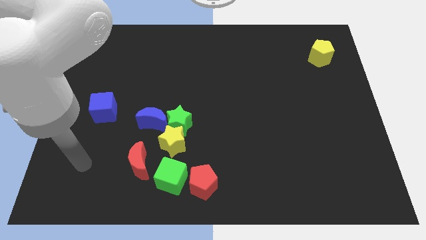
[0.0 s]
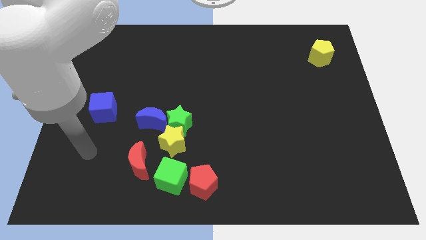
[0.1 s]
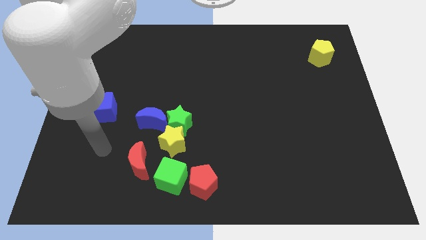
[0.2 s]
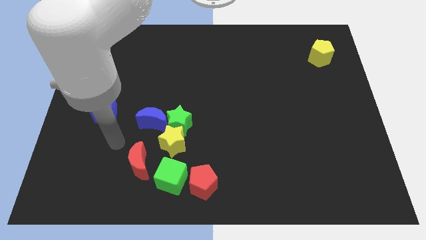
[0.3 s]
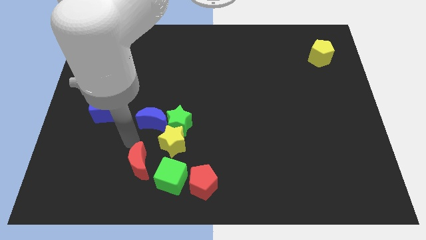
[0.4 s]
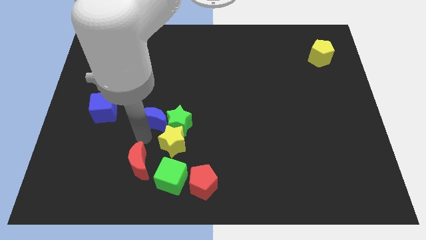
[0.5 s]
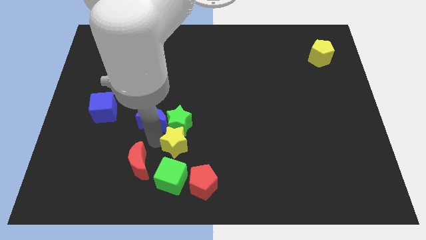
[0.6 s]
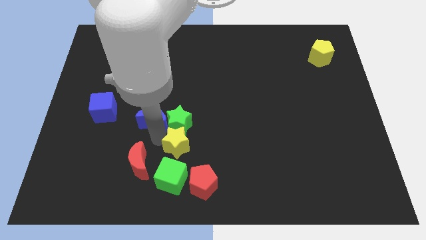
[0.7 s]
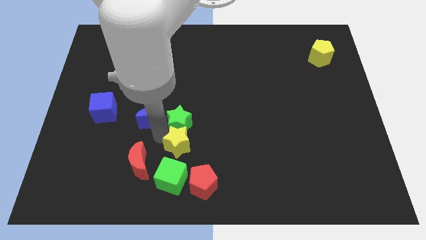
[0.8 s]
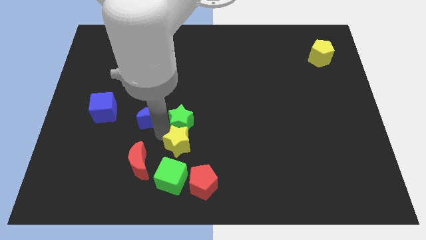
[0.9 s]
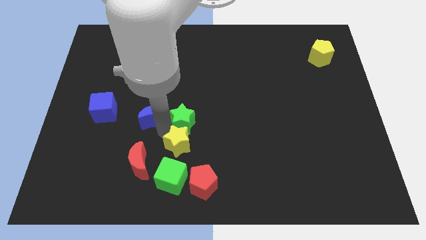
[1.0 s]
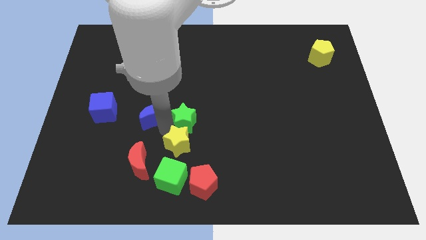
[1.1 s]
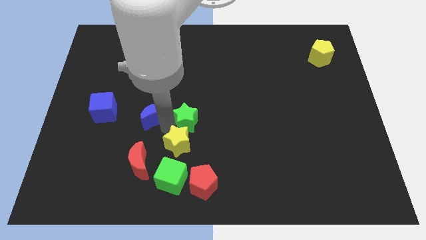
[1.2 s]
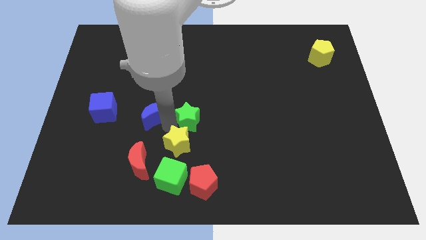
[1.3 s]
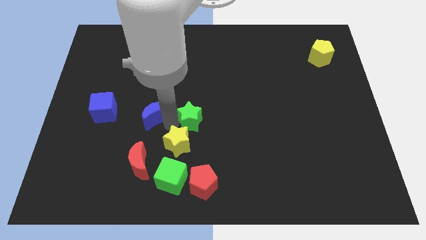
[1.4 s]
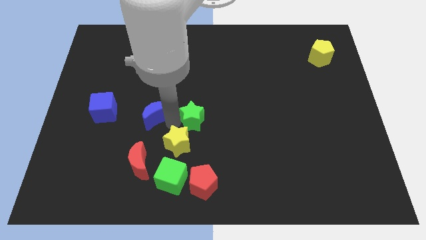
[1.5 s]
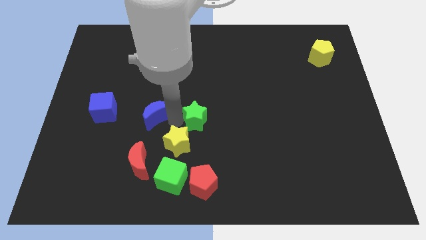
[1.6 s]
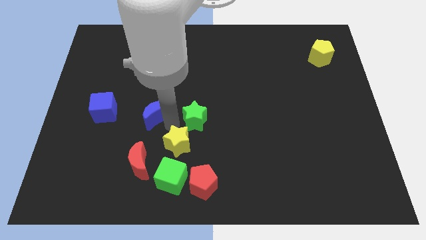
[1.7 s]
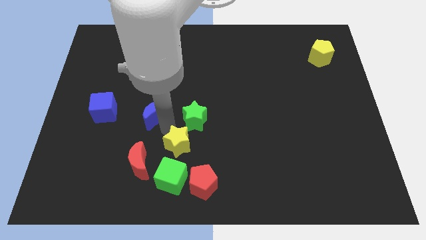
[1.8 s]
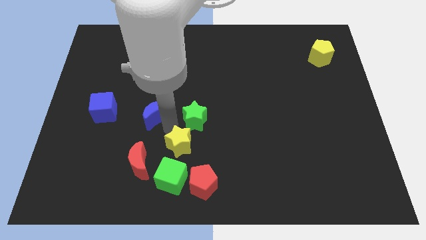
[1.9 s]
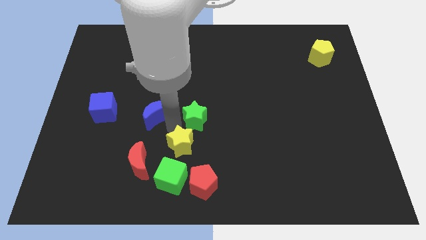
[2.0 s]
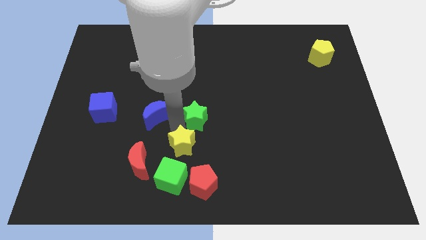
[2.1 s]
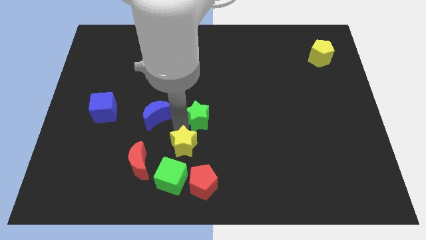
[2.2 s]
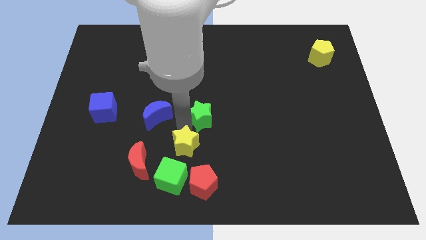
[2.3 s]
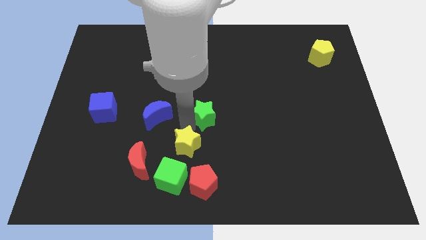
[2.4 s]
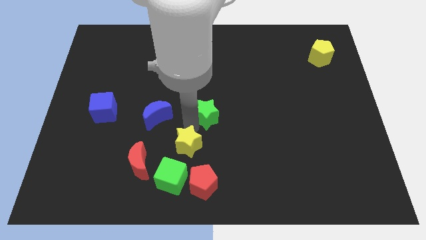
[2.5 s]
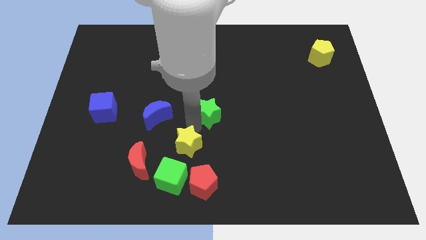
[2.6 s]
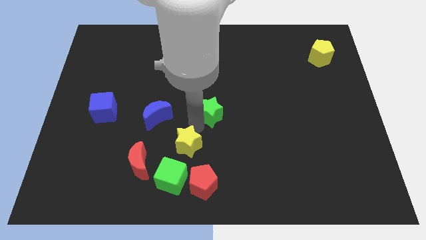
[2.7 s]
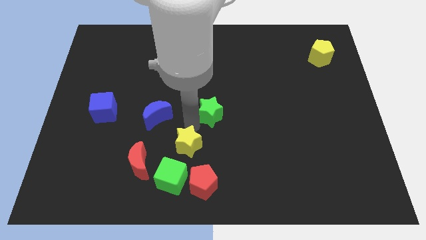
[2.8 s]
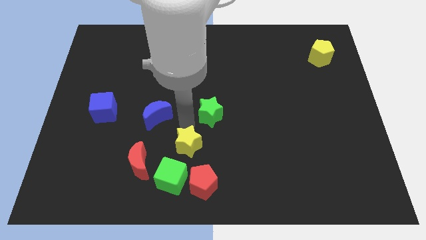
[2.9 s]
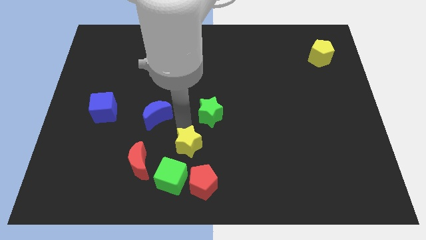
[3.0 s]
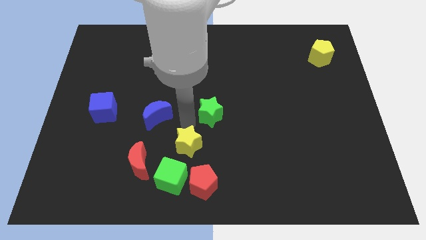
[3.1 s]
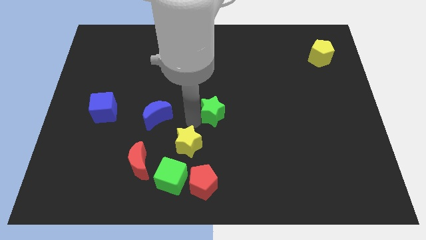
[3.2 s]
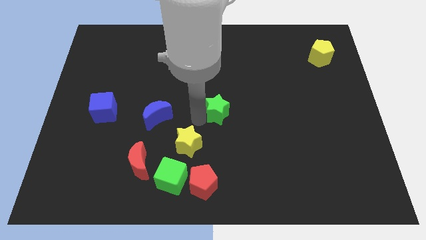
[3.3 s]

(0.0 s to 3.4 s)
pull the green star apart from the yellow star and blue moon

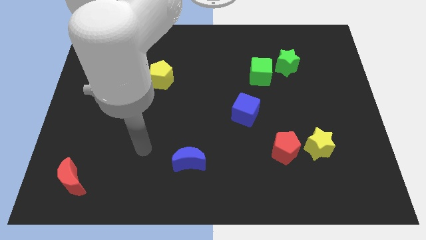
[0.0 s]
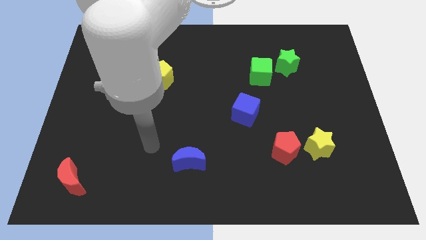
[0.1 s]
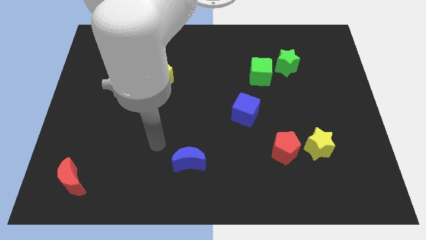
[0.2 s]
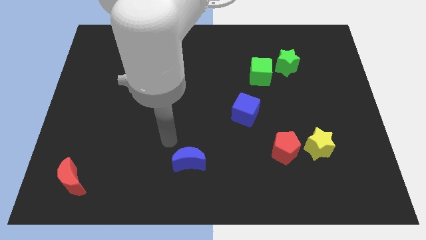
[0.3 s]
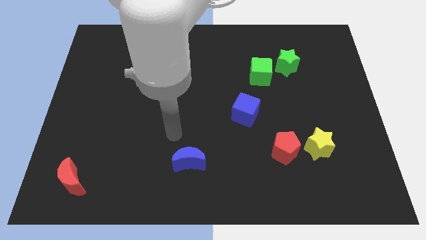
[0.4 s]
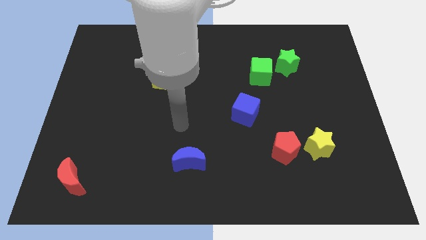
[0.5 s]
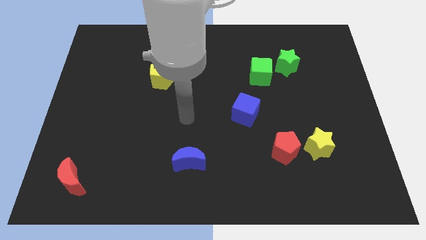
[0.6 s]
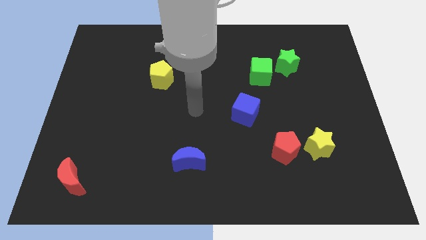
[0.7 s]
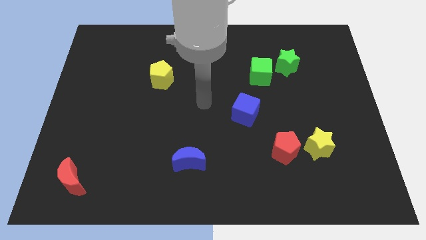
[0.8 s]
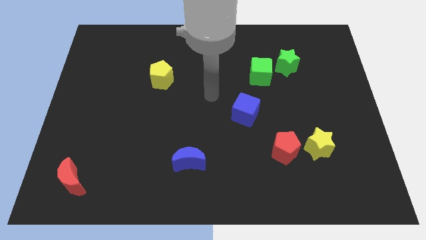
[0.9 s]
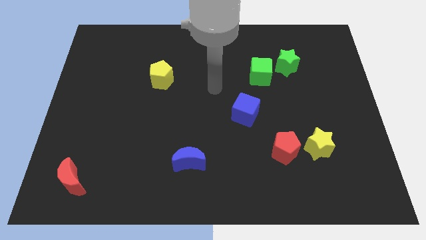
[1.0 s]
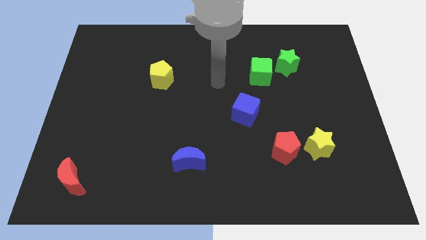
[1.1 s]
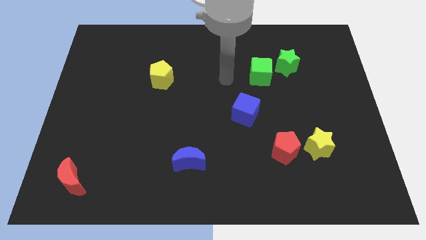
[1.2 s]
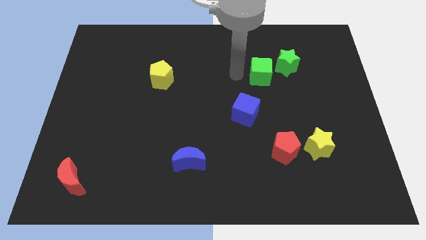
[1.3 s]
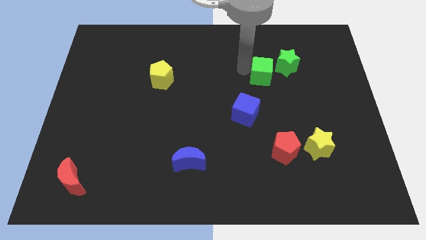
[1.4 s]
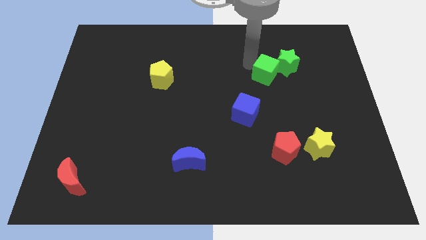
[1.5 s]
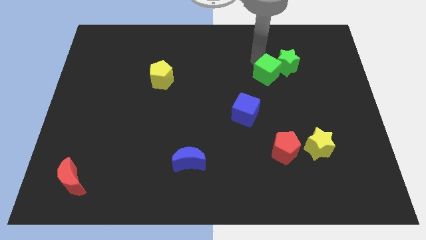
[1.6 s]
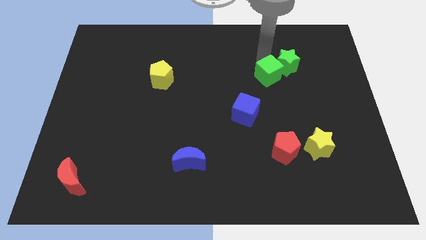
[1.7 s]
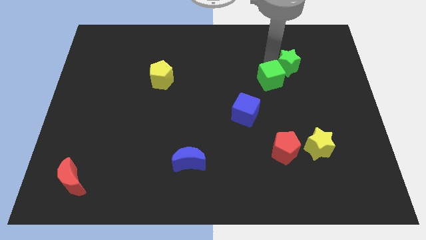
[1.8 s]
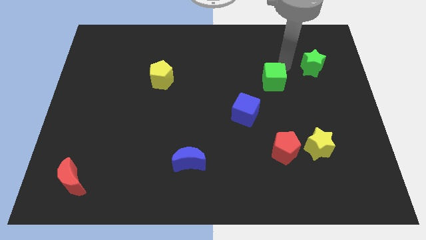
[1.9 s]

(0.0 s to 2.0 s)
separate the green cube from the green star

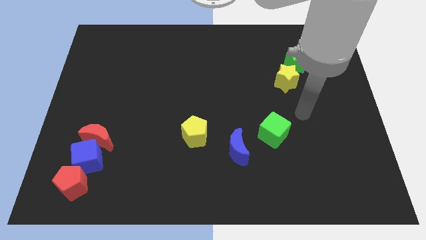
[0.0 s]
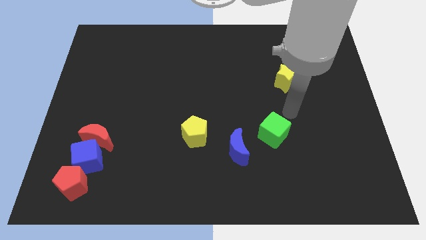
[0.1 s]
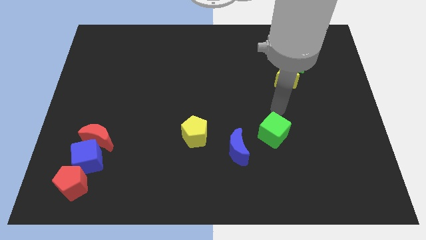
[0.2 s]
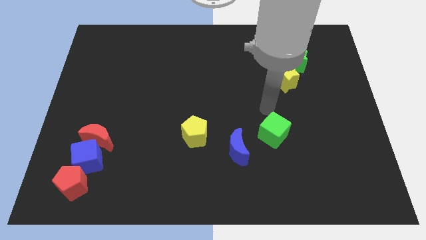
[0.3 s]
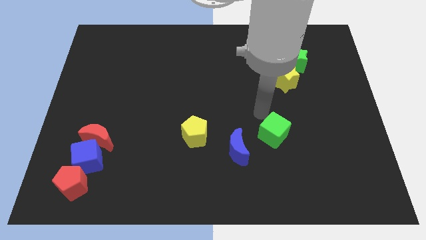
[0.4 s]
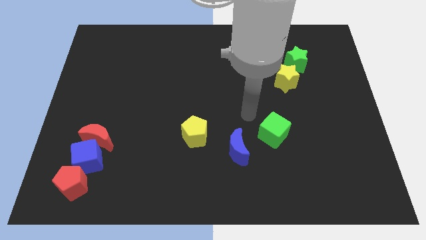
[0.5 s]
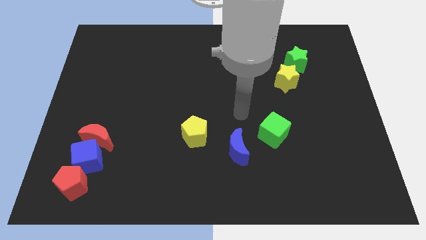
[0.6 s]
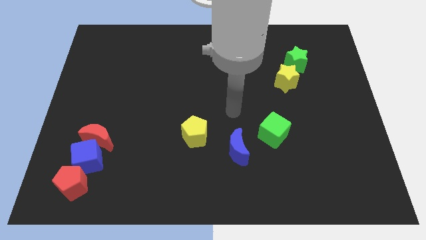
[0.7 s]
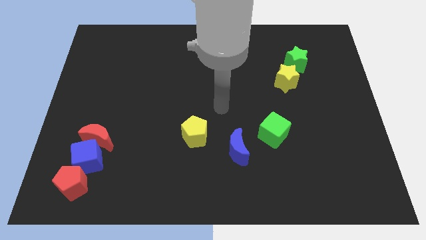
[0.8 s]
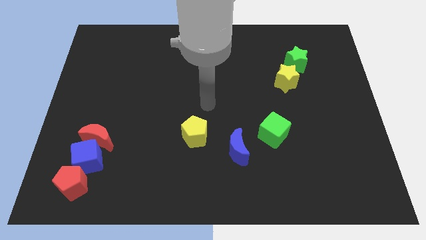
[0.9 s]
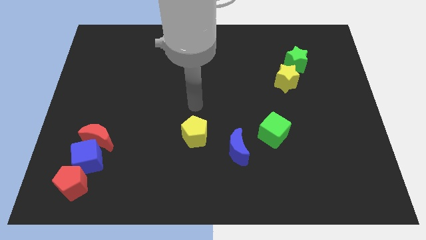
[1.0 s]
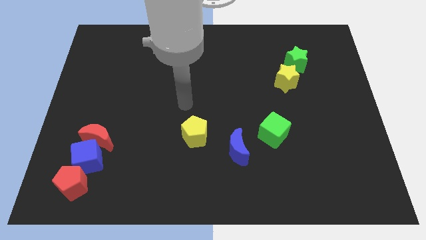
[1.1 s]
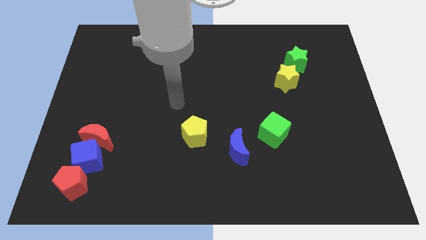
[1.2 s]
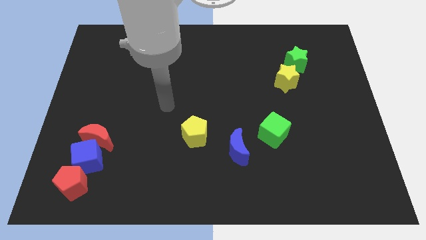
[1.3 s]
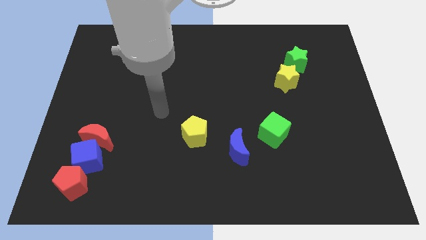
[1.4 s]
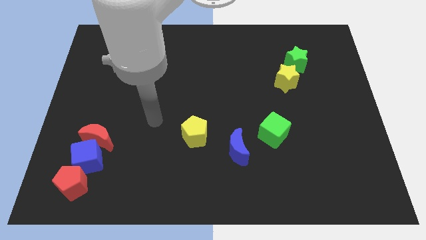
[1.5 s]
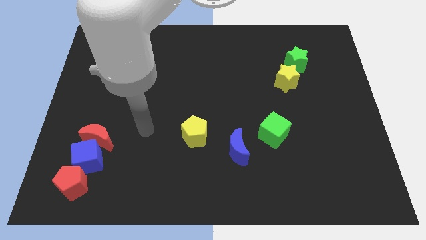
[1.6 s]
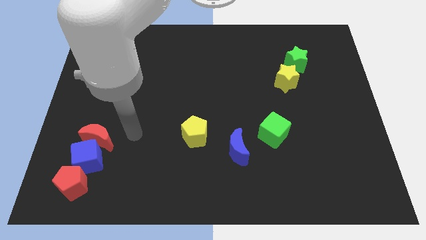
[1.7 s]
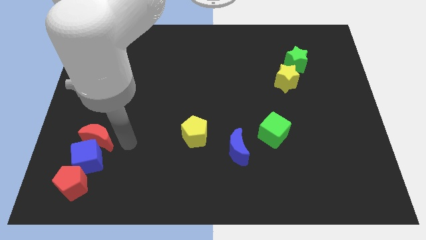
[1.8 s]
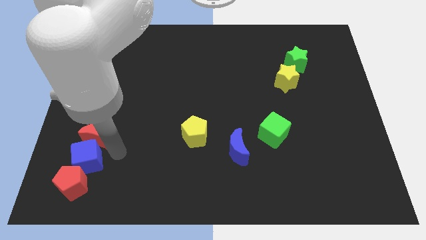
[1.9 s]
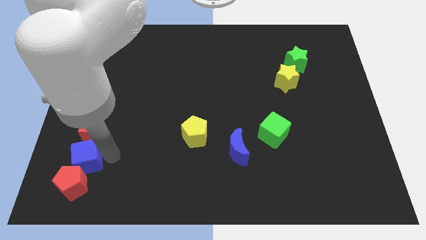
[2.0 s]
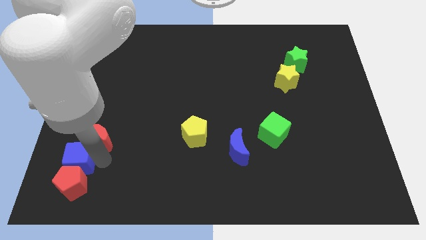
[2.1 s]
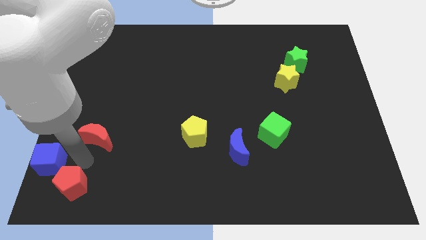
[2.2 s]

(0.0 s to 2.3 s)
move the red moon away from the blue cube

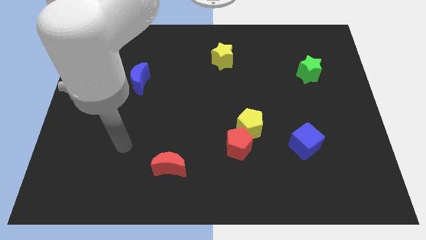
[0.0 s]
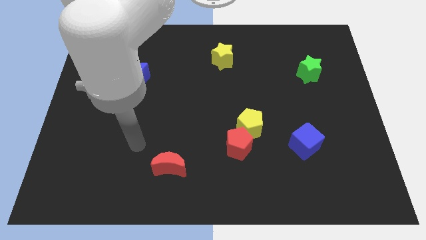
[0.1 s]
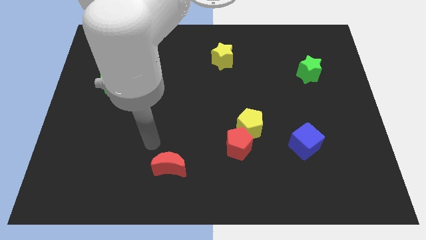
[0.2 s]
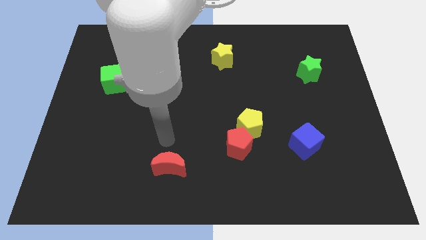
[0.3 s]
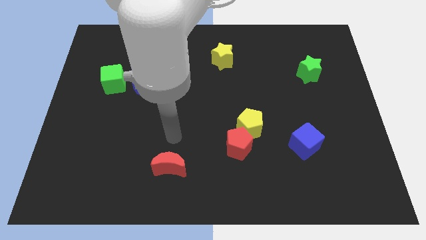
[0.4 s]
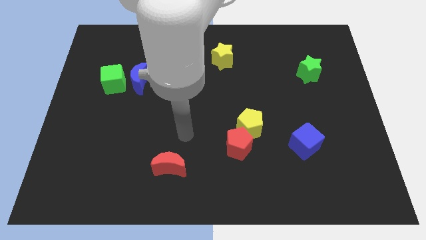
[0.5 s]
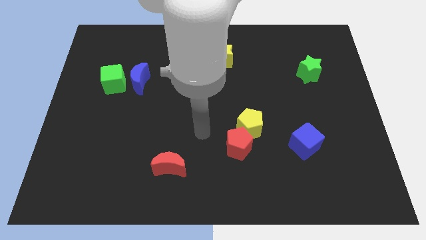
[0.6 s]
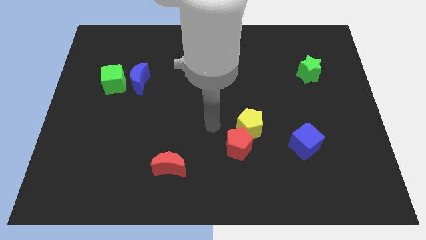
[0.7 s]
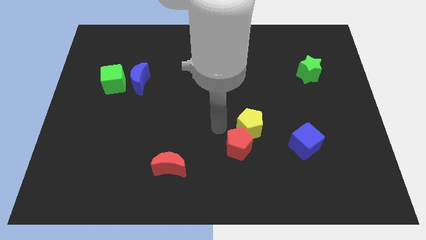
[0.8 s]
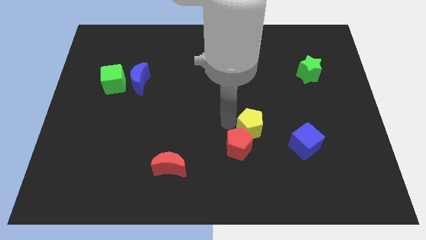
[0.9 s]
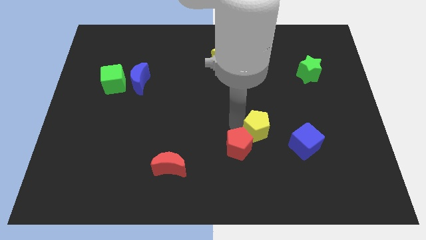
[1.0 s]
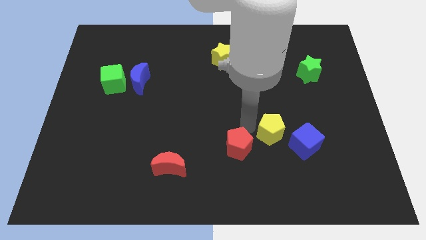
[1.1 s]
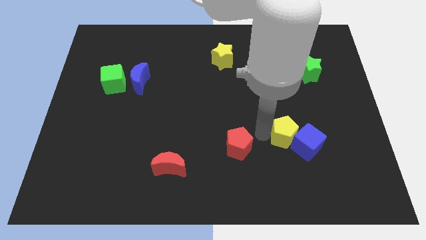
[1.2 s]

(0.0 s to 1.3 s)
move the red pentagon away from the yellow pentagon

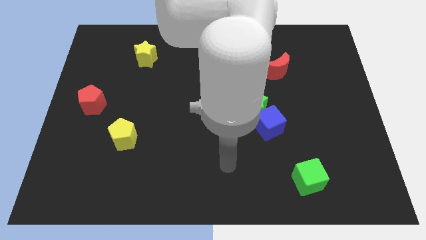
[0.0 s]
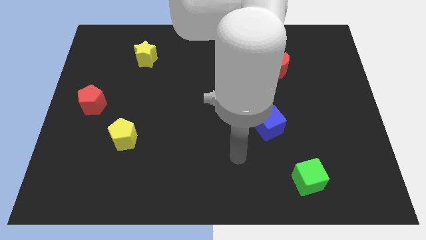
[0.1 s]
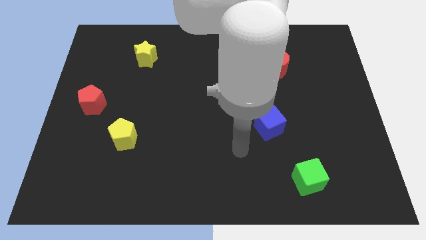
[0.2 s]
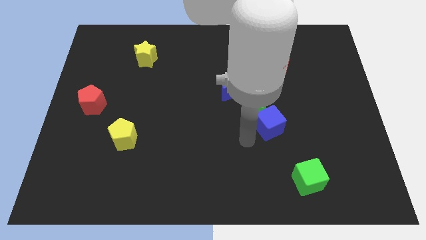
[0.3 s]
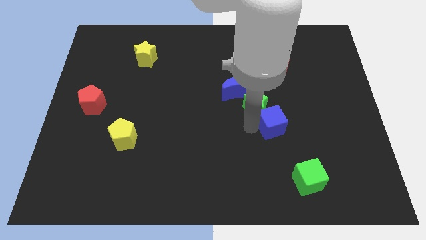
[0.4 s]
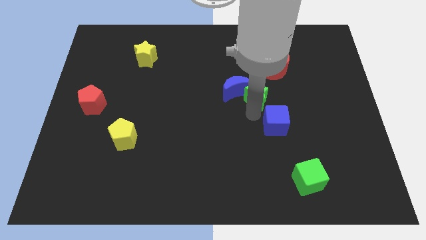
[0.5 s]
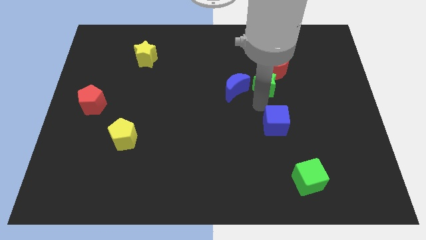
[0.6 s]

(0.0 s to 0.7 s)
pull the blue cube apart from the green star
